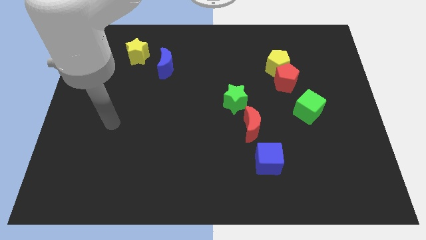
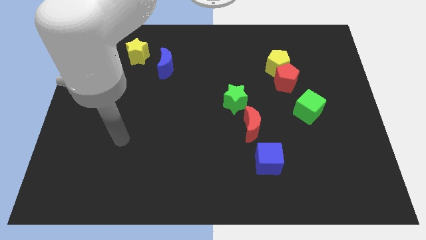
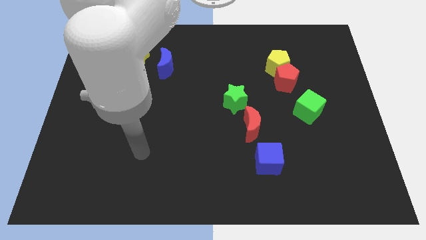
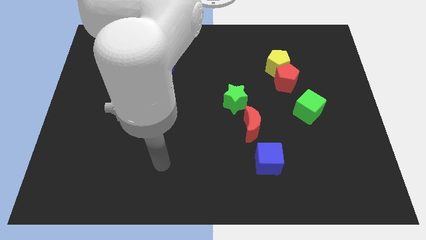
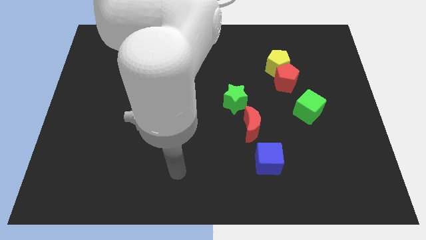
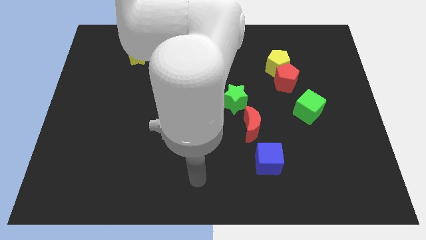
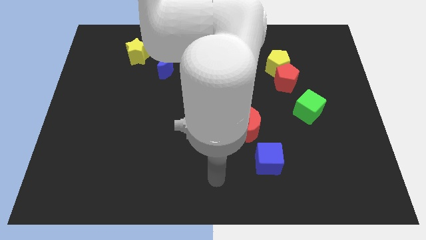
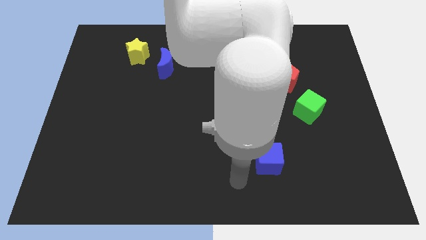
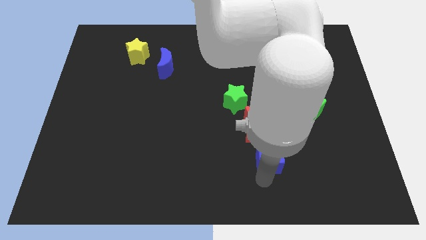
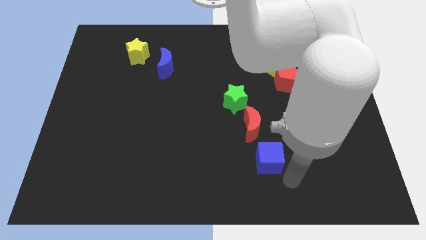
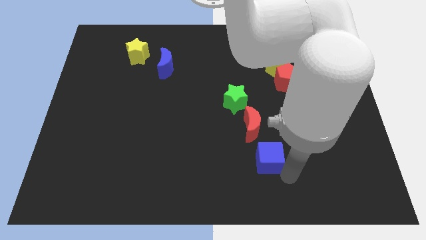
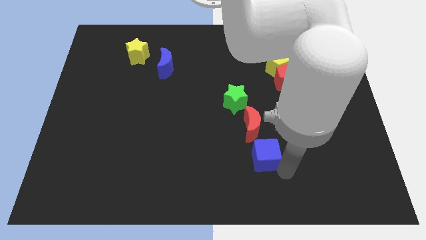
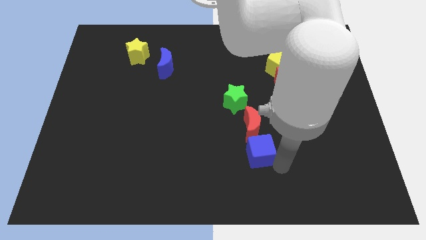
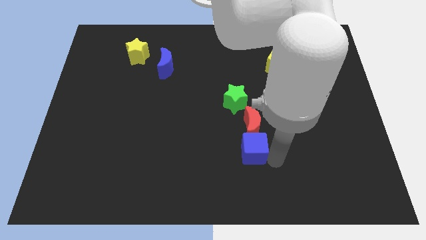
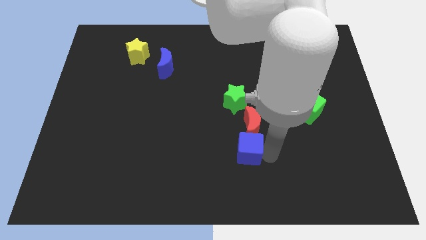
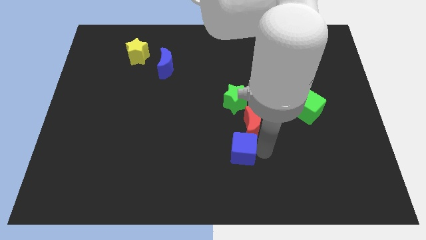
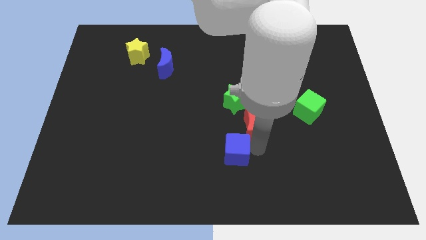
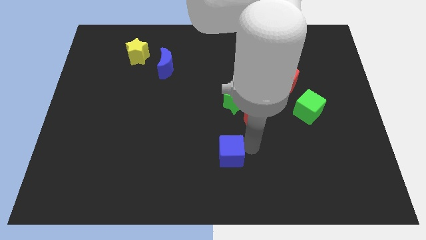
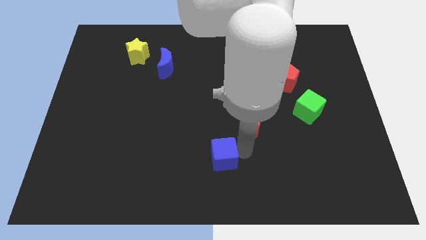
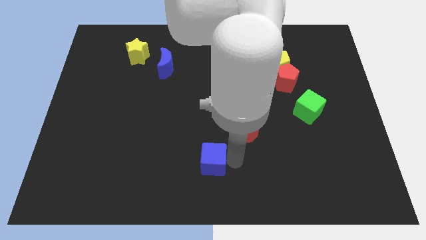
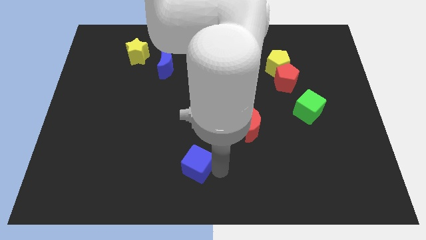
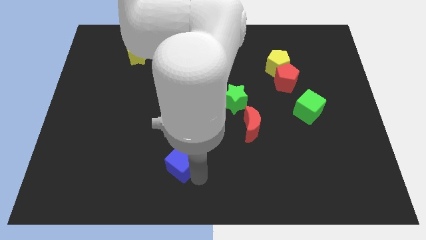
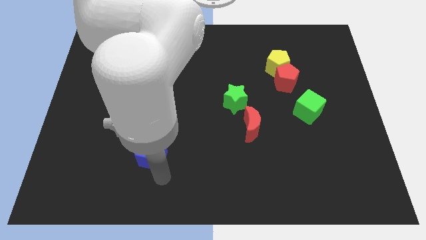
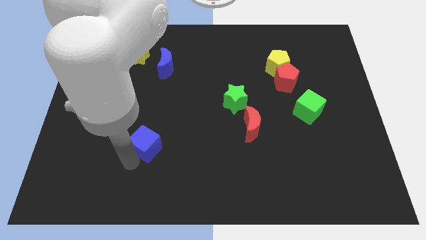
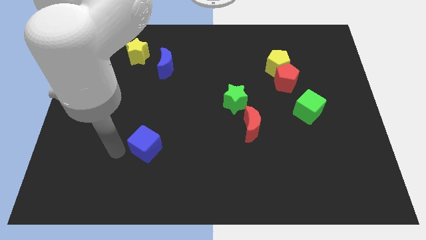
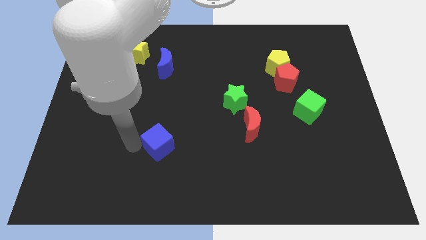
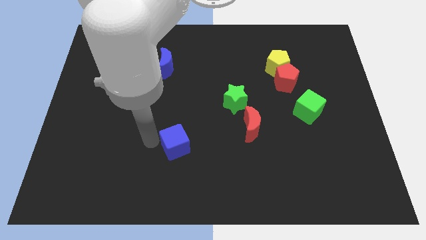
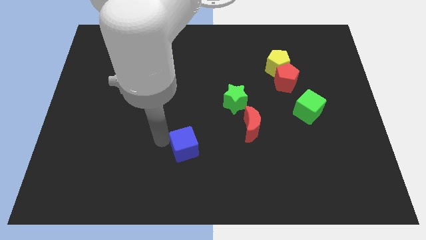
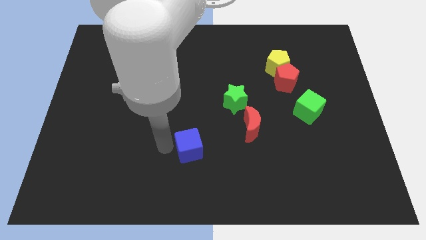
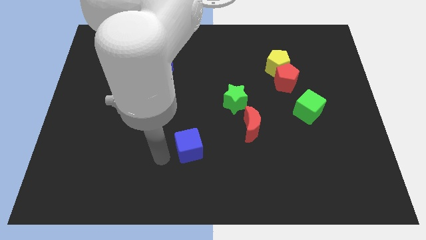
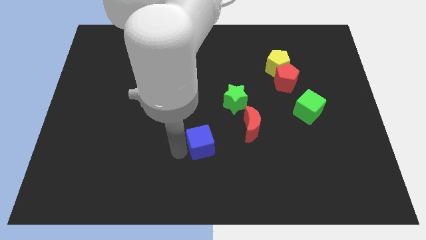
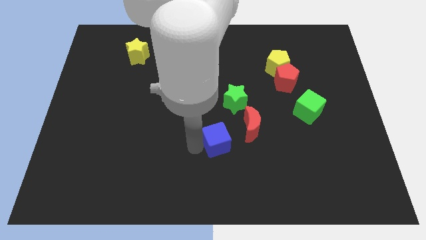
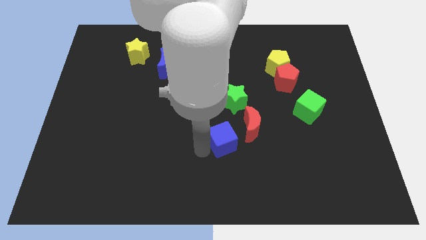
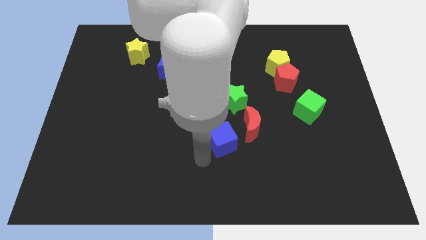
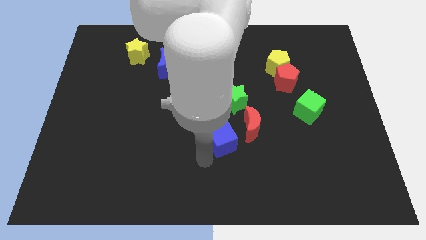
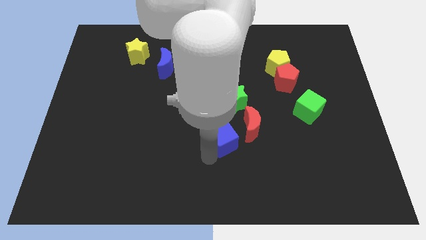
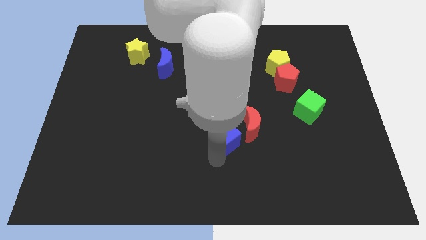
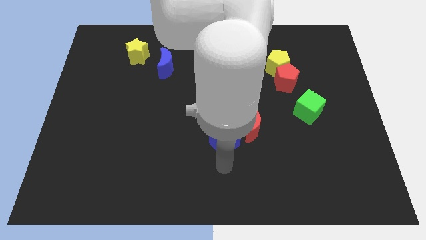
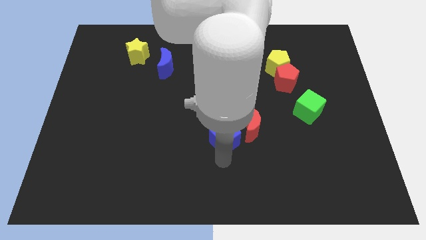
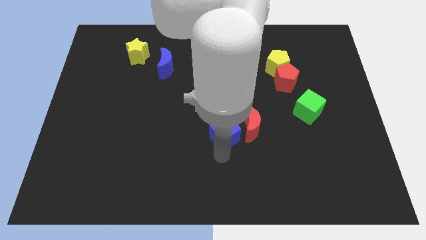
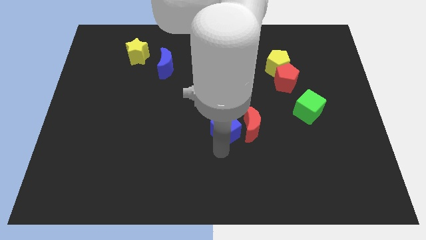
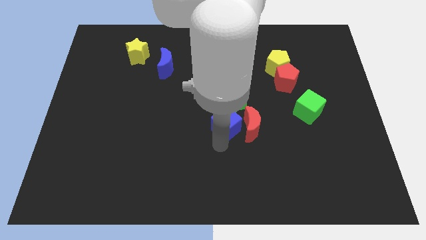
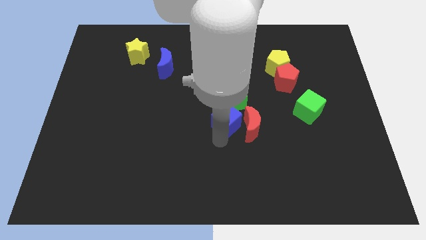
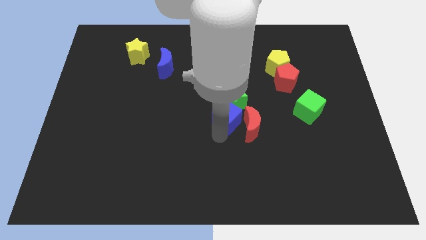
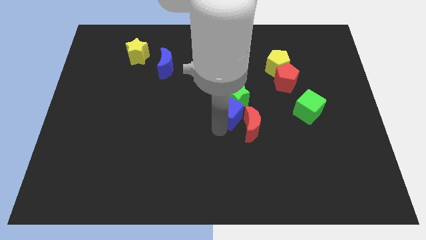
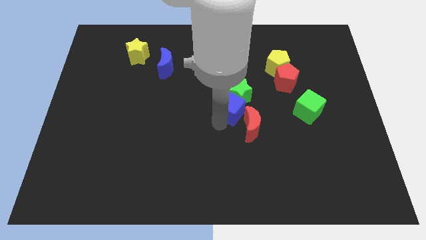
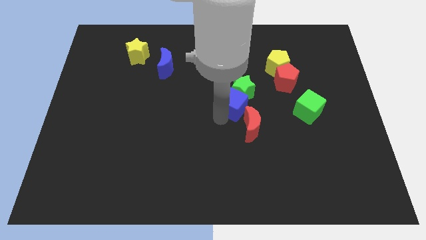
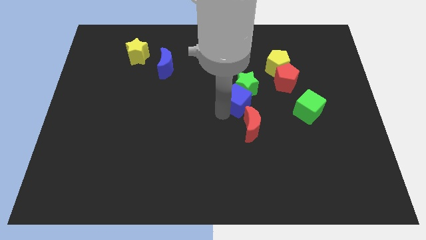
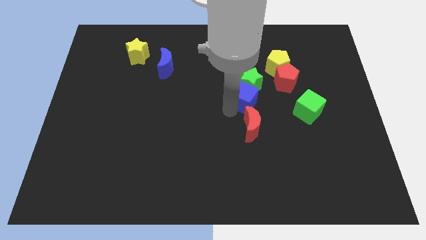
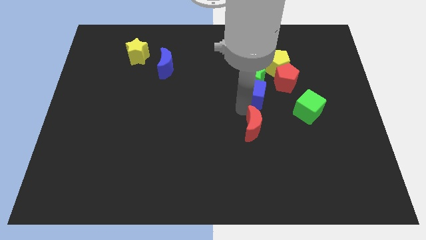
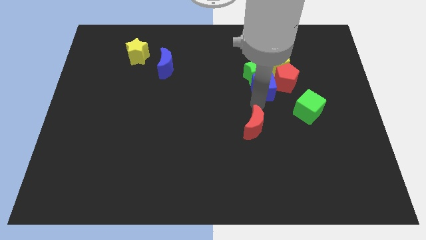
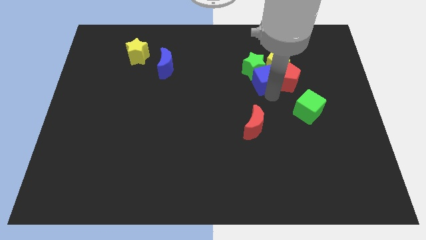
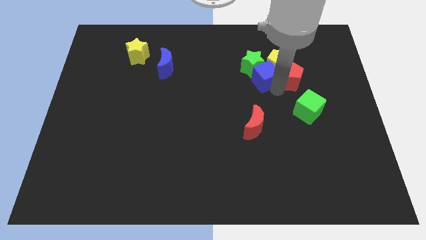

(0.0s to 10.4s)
slide the blue cube left of the yellow pentagon

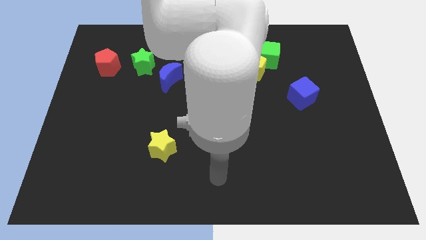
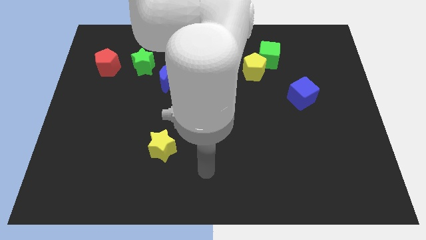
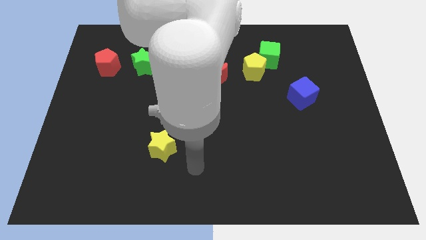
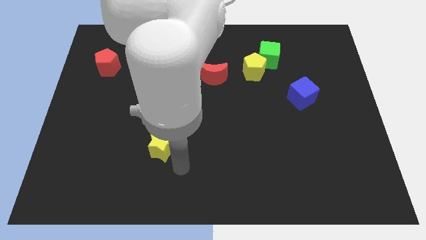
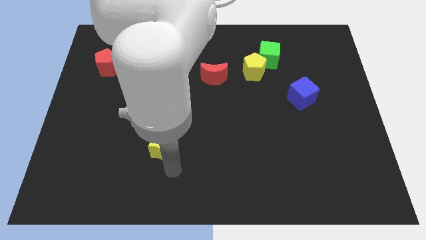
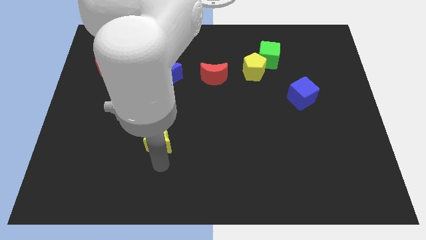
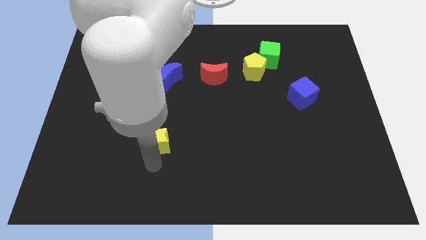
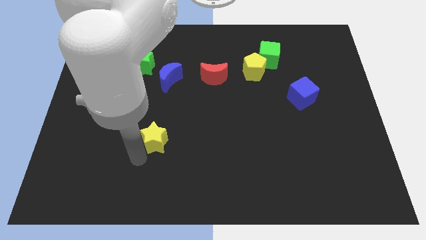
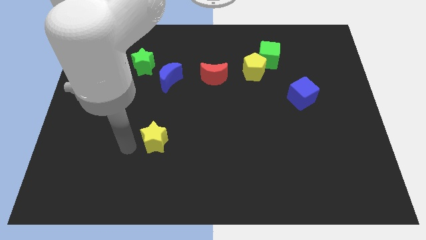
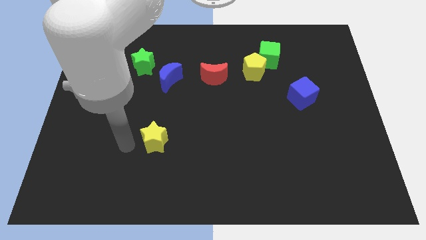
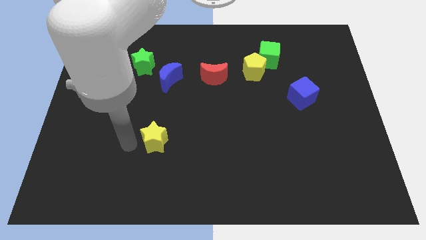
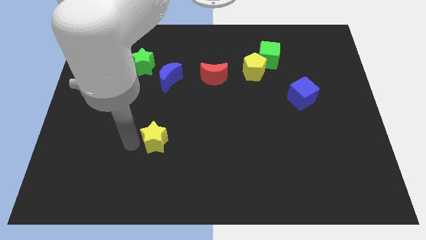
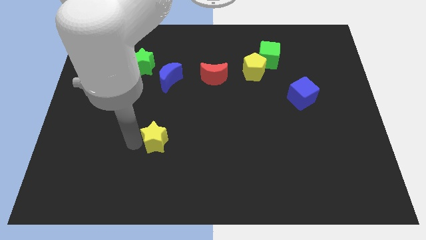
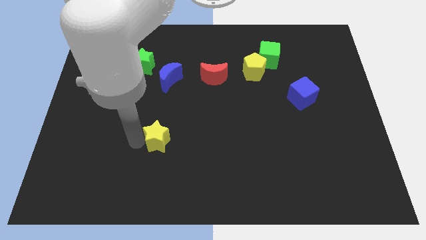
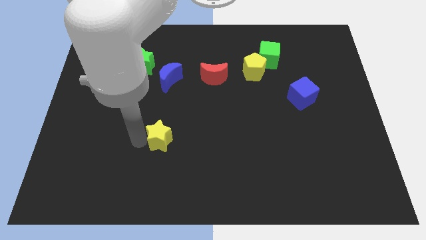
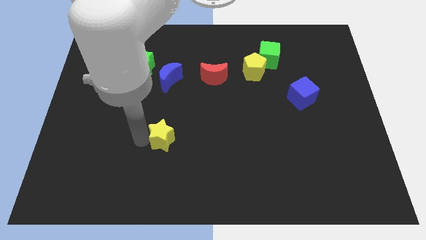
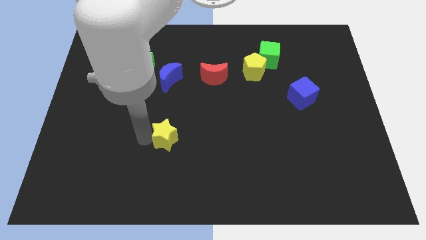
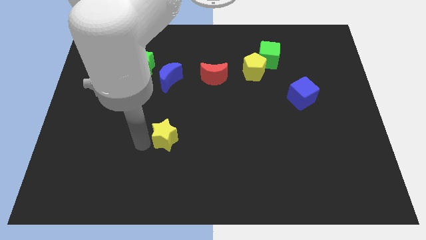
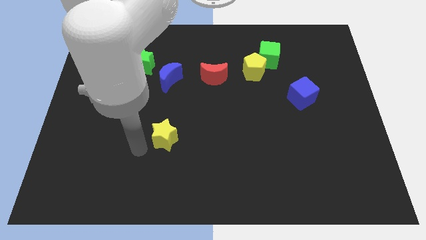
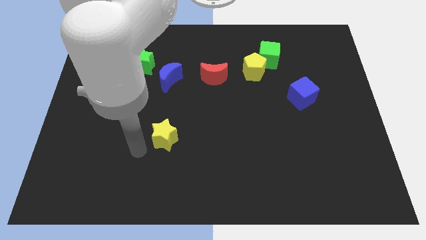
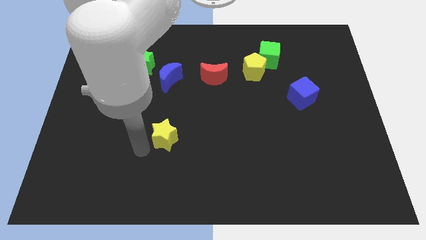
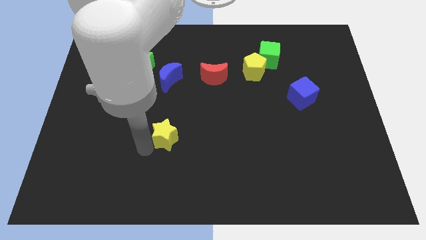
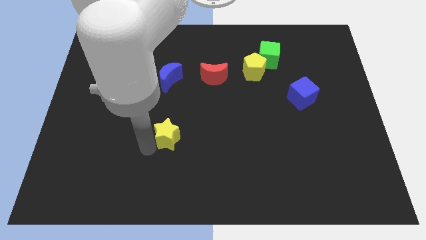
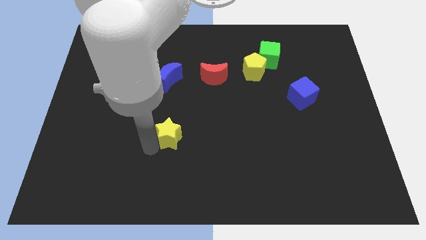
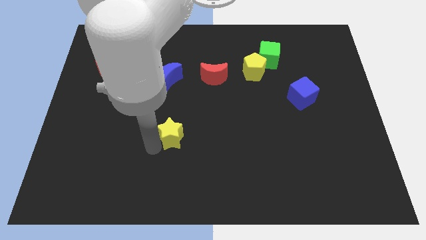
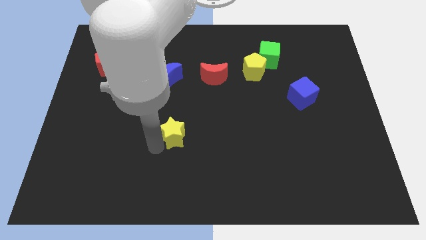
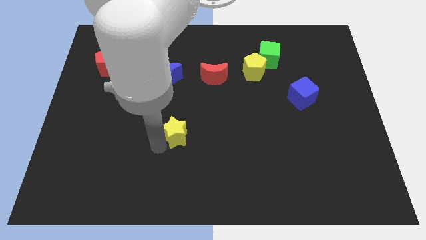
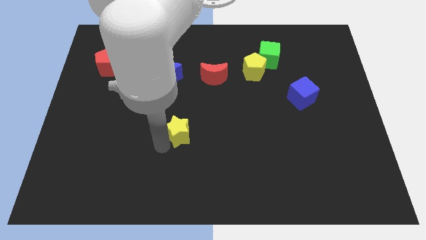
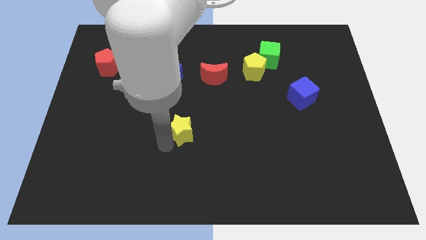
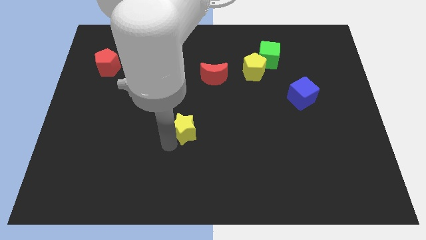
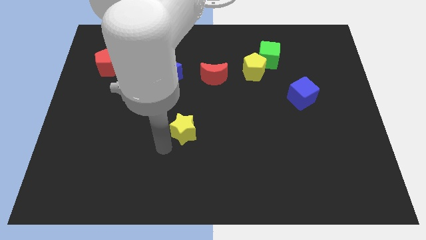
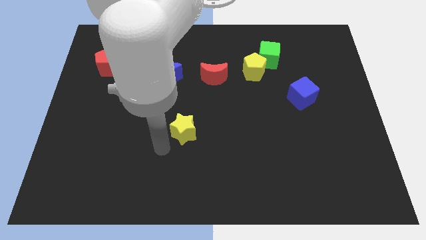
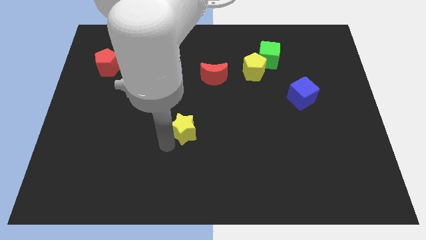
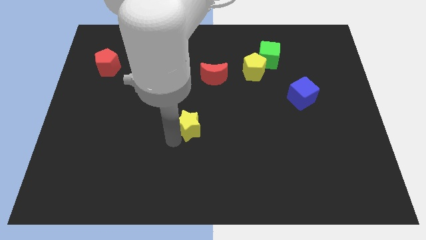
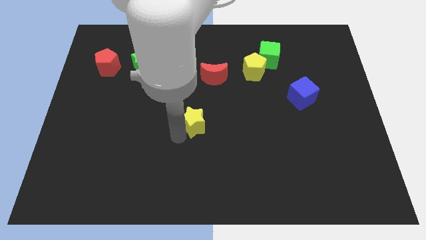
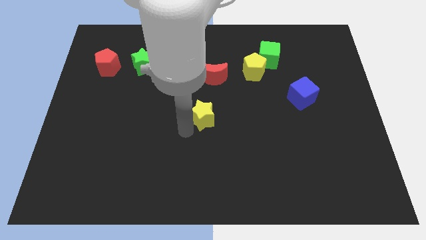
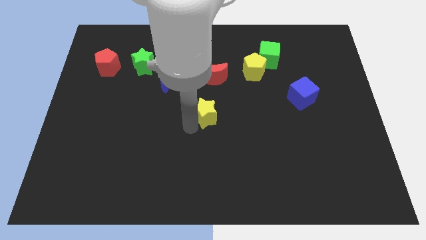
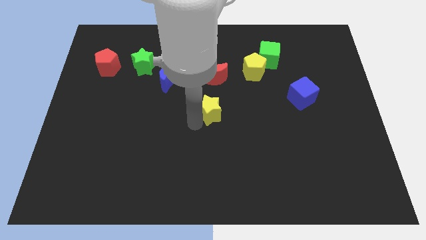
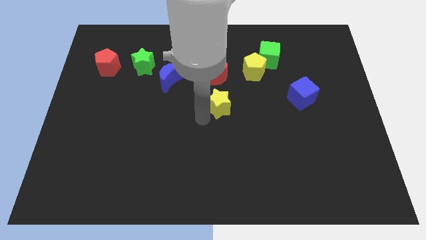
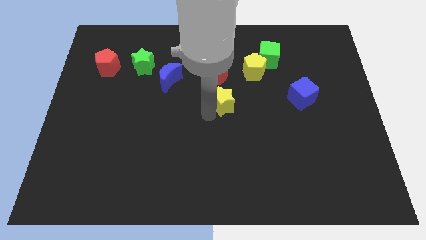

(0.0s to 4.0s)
put the yellow star to the bottom right of the red moon
